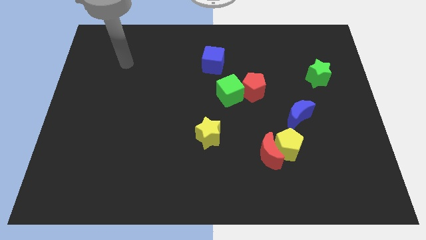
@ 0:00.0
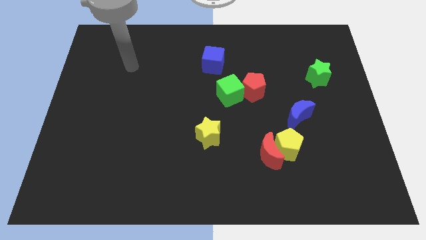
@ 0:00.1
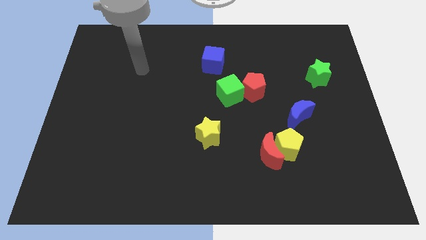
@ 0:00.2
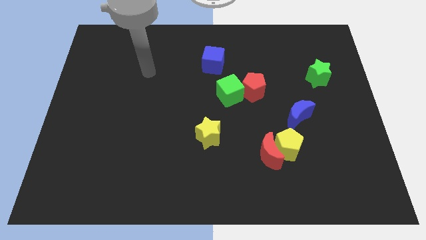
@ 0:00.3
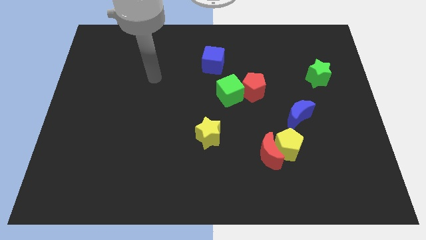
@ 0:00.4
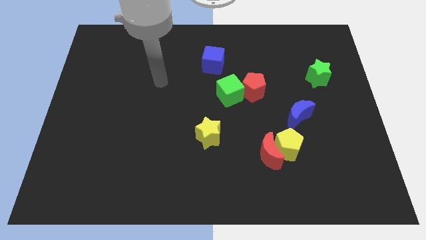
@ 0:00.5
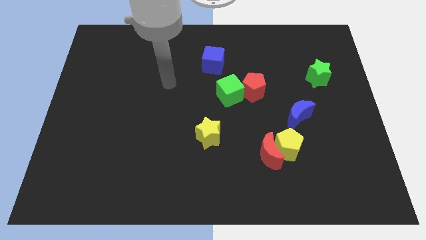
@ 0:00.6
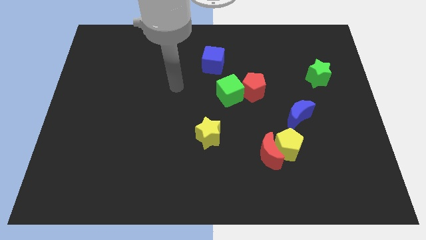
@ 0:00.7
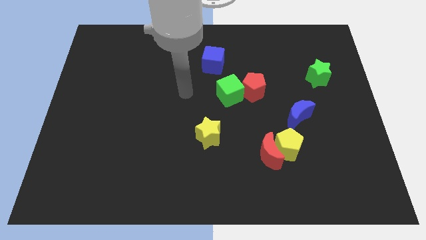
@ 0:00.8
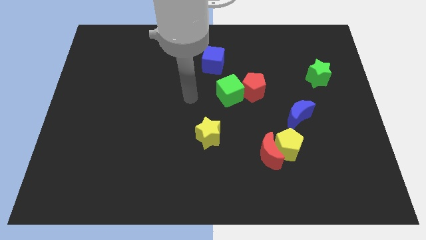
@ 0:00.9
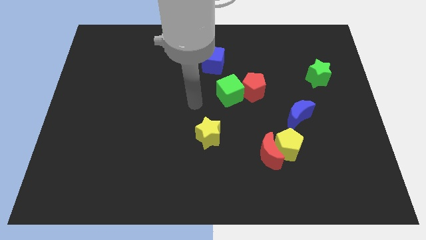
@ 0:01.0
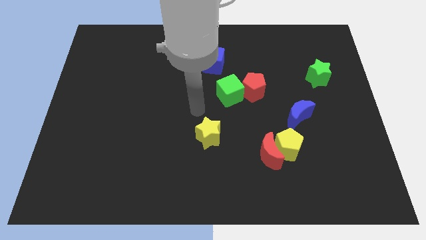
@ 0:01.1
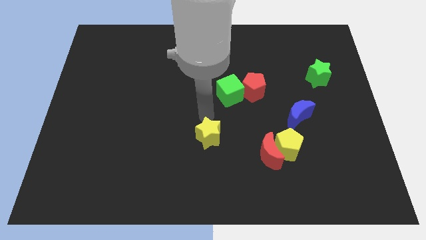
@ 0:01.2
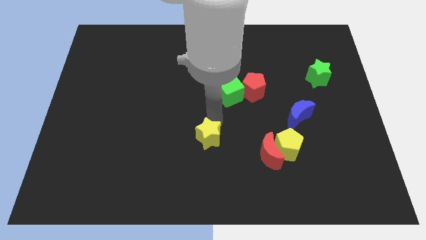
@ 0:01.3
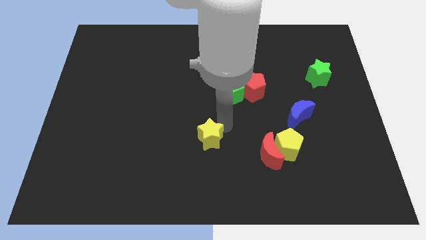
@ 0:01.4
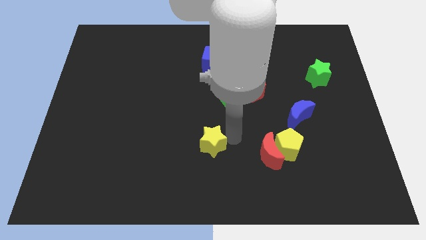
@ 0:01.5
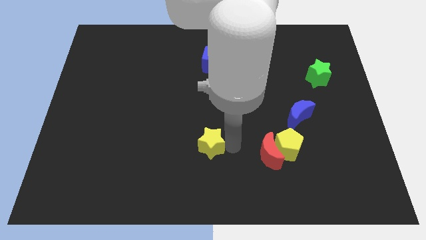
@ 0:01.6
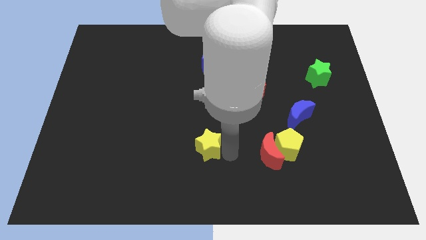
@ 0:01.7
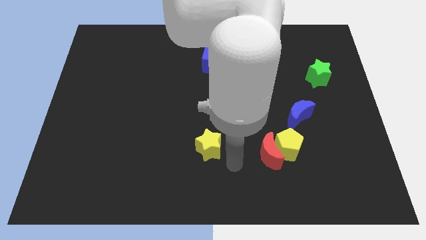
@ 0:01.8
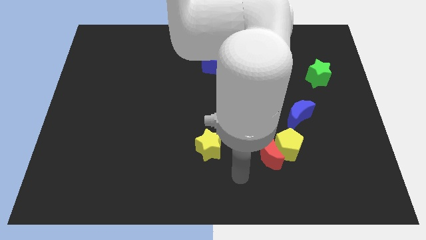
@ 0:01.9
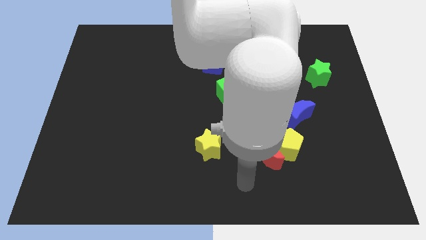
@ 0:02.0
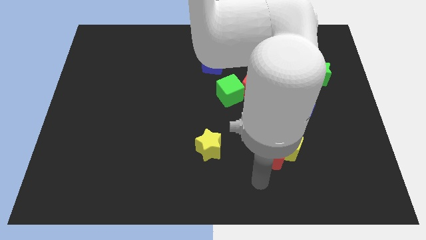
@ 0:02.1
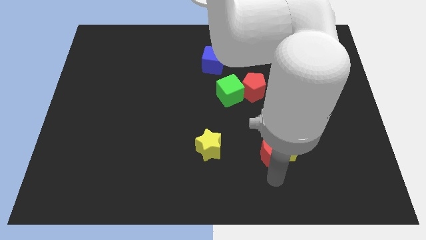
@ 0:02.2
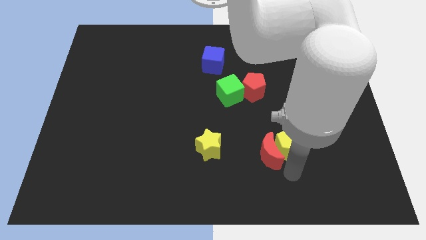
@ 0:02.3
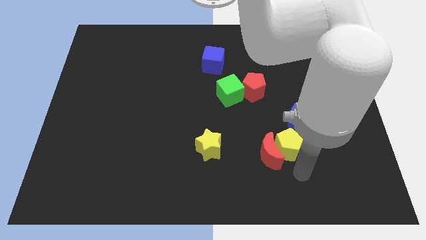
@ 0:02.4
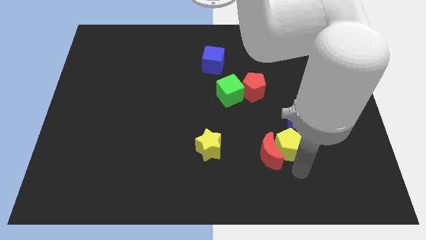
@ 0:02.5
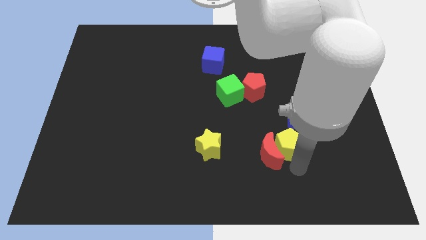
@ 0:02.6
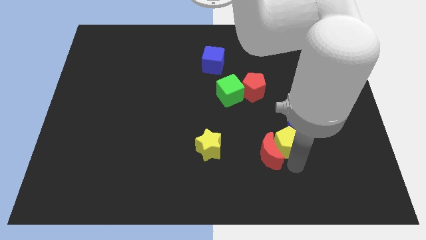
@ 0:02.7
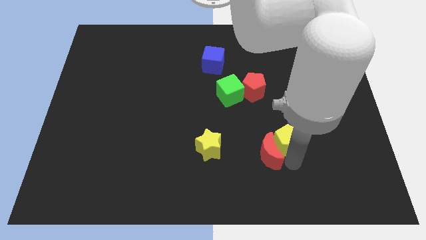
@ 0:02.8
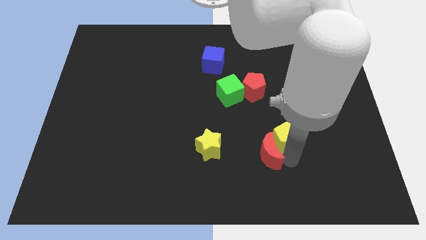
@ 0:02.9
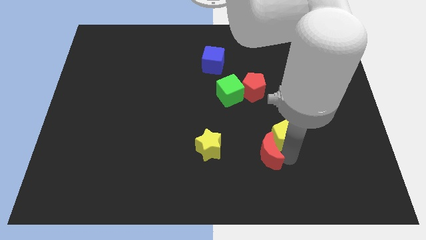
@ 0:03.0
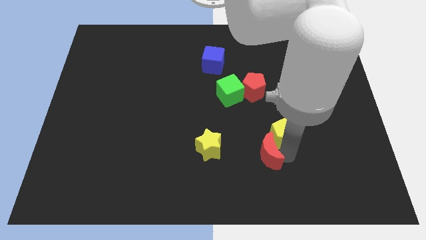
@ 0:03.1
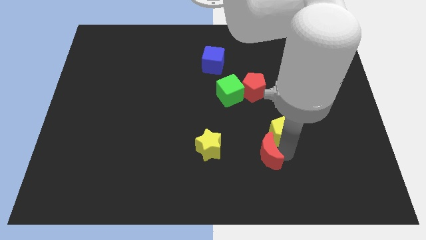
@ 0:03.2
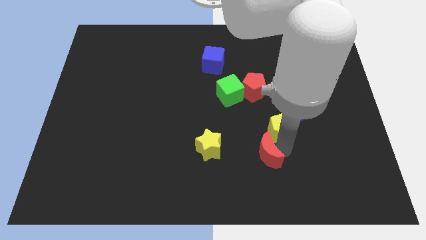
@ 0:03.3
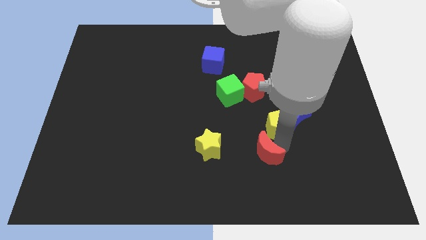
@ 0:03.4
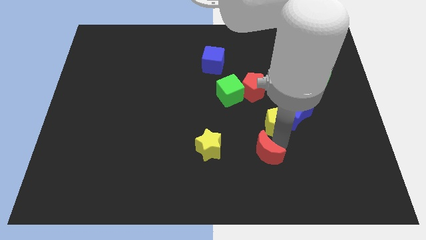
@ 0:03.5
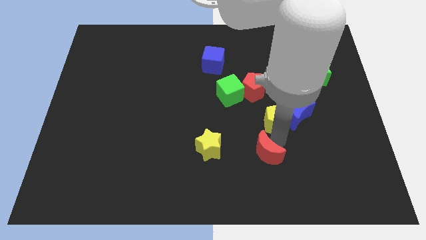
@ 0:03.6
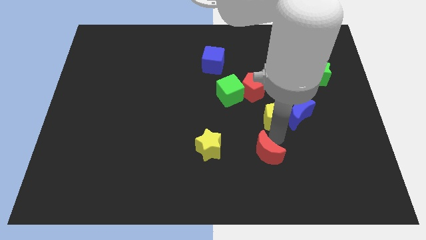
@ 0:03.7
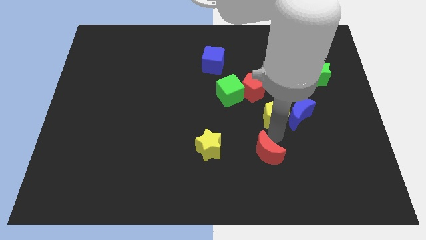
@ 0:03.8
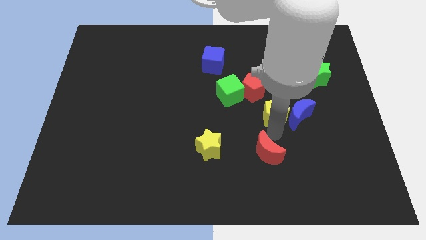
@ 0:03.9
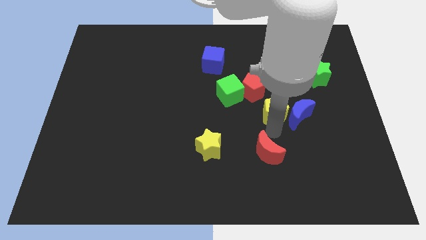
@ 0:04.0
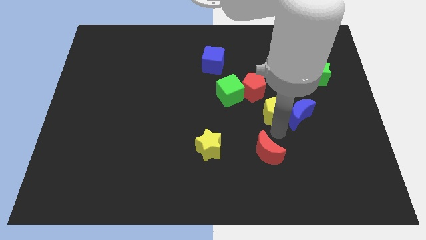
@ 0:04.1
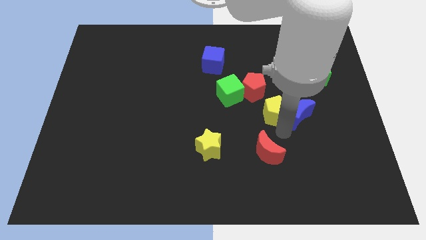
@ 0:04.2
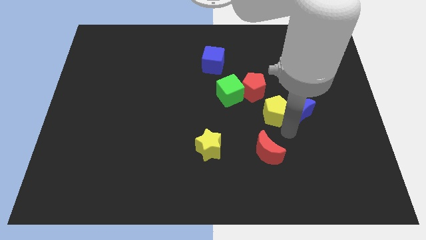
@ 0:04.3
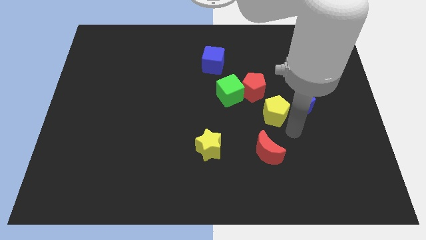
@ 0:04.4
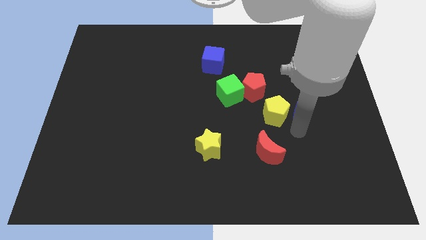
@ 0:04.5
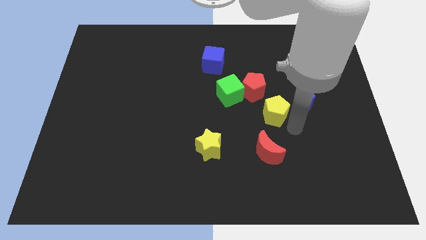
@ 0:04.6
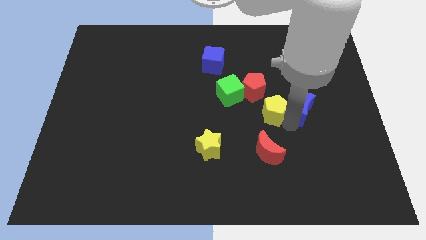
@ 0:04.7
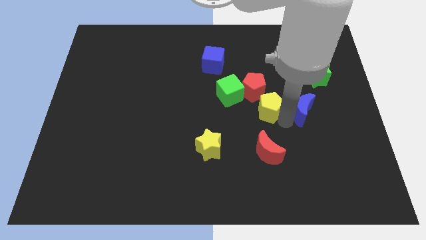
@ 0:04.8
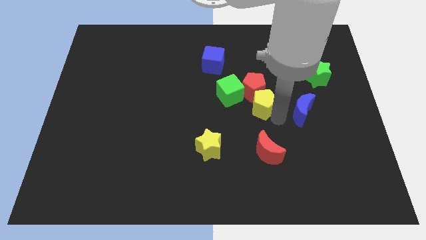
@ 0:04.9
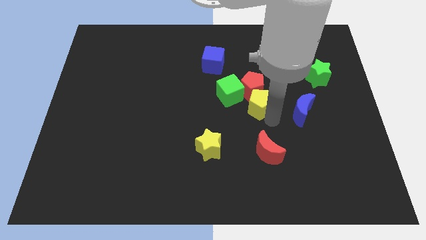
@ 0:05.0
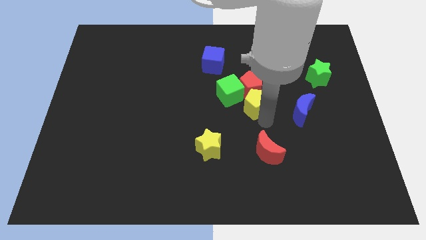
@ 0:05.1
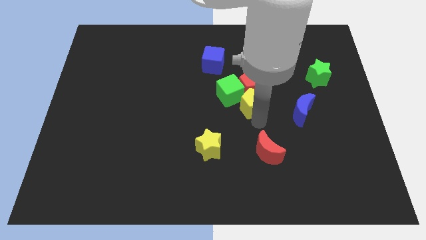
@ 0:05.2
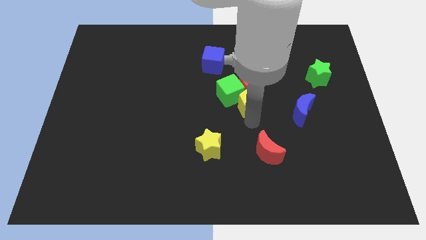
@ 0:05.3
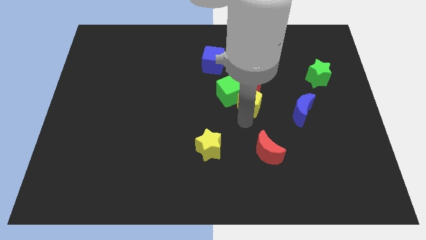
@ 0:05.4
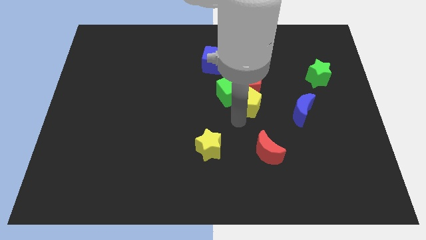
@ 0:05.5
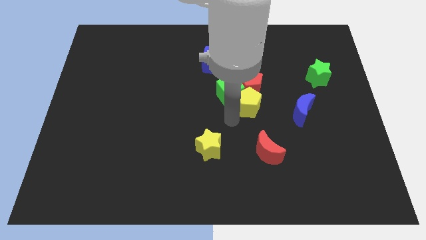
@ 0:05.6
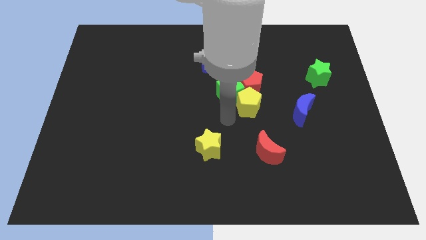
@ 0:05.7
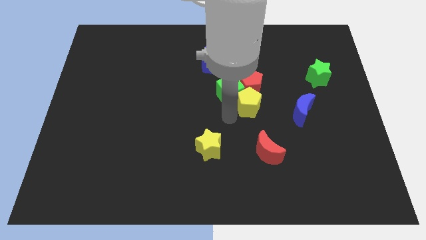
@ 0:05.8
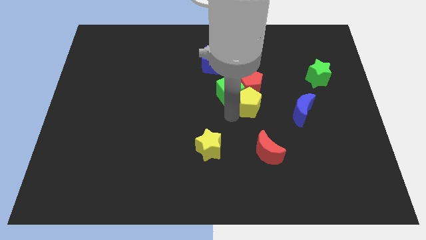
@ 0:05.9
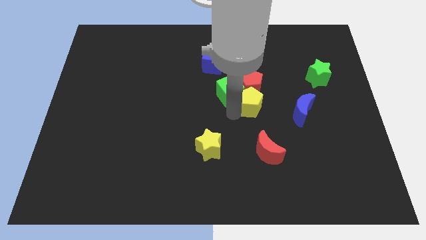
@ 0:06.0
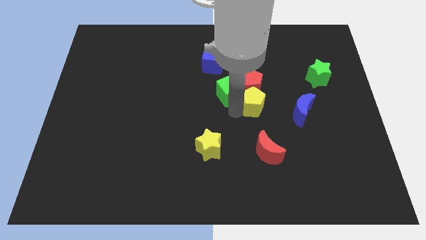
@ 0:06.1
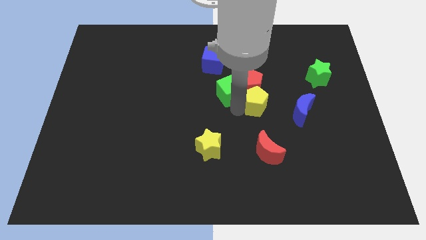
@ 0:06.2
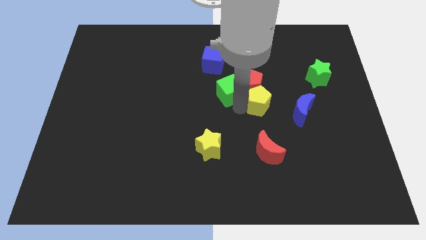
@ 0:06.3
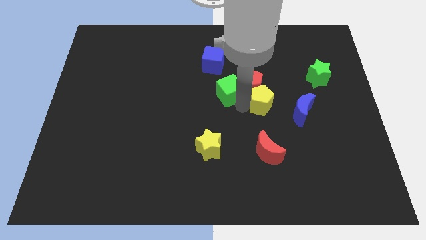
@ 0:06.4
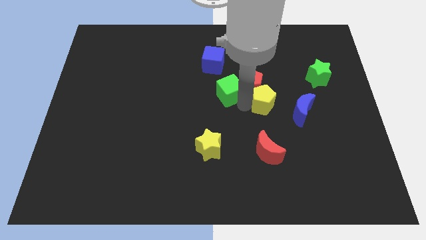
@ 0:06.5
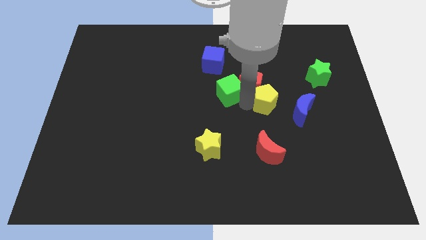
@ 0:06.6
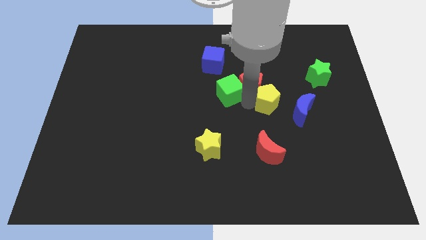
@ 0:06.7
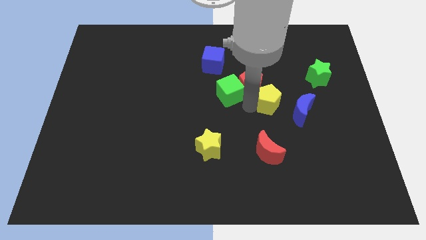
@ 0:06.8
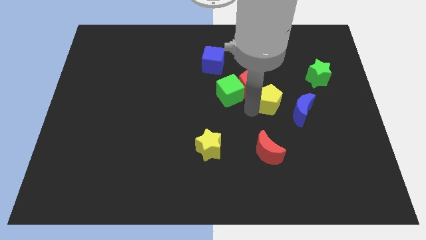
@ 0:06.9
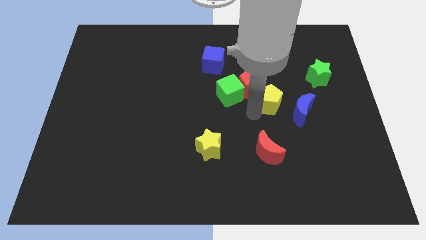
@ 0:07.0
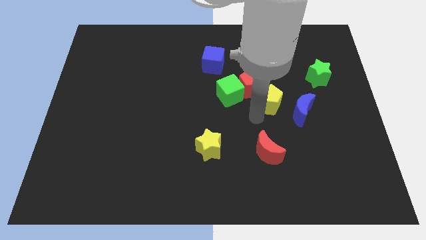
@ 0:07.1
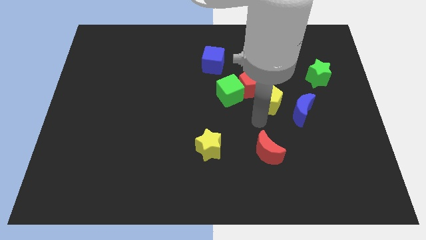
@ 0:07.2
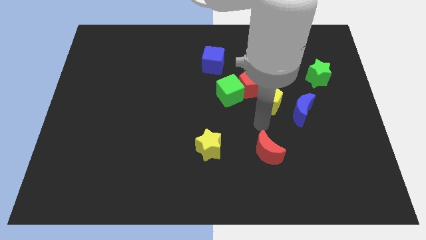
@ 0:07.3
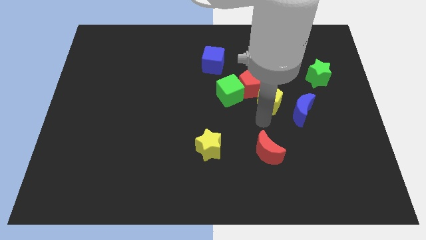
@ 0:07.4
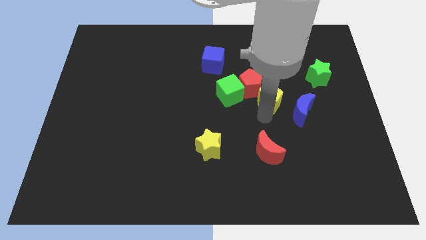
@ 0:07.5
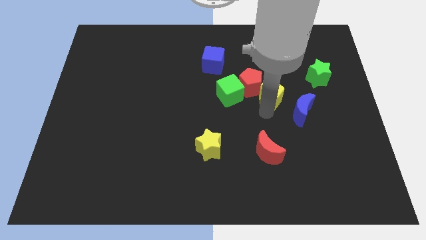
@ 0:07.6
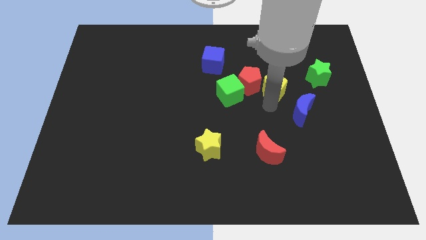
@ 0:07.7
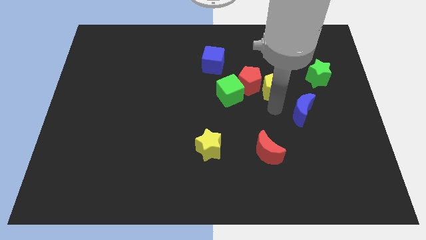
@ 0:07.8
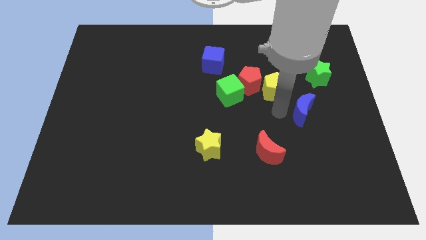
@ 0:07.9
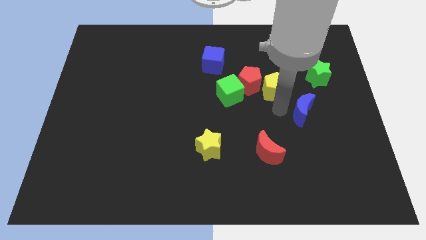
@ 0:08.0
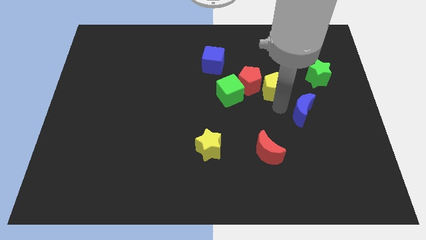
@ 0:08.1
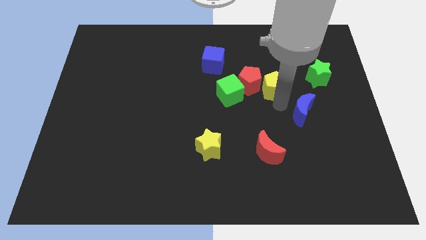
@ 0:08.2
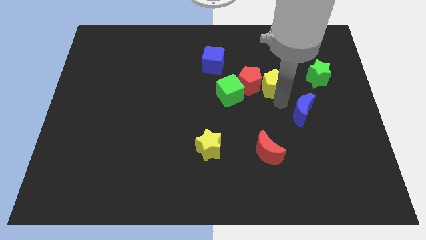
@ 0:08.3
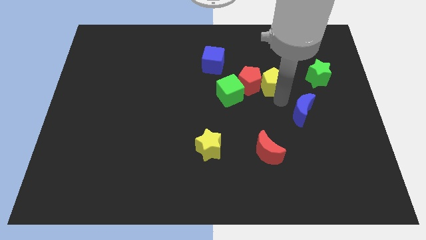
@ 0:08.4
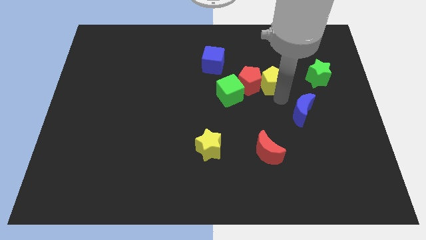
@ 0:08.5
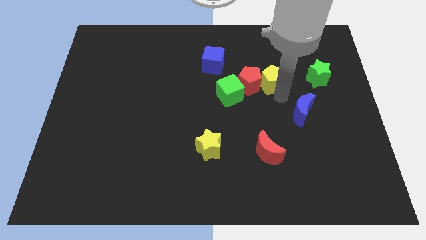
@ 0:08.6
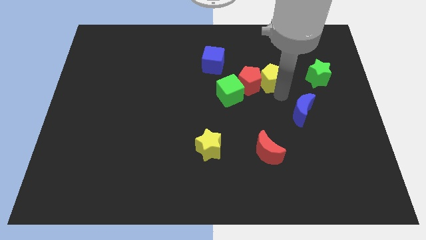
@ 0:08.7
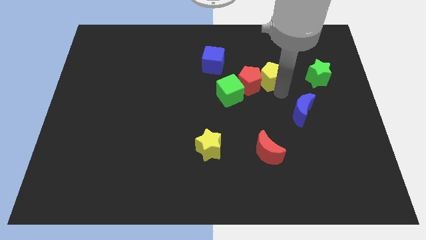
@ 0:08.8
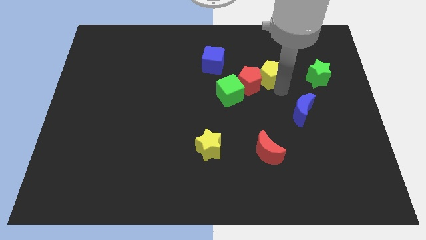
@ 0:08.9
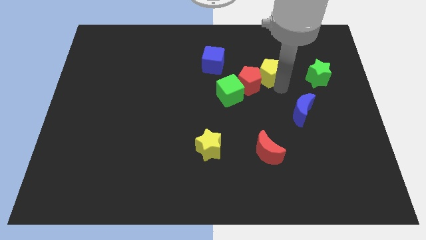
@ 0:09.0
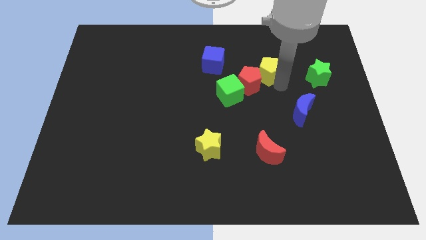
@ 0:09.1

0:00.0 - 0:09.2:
put the yellow pentagon just right of the blue cube
